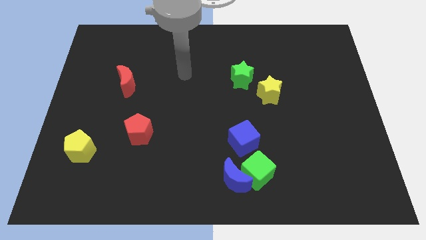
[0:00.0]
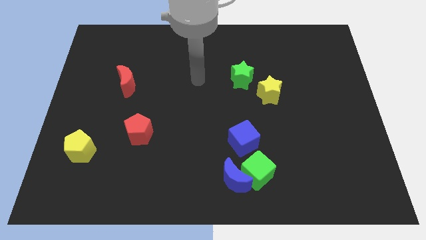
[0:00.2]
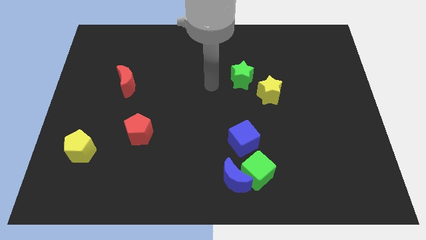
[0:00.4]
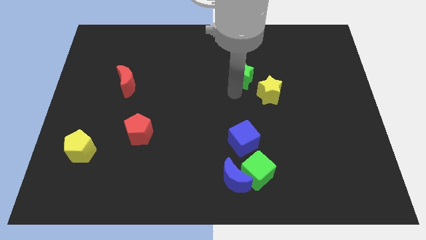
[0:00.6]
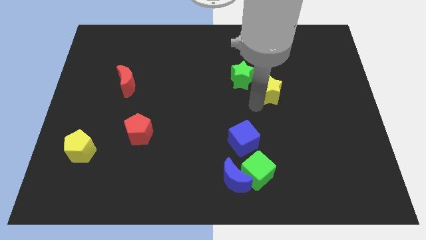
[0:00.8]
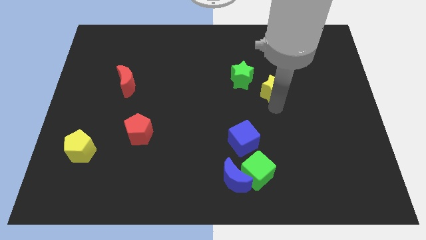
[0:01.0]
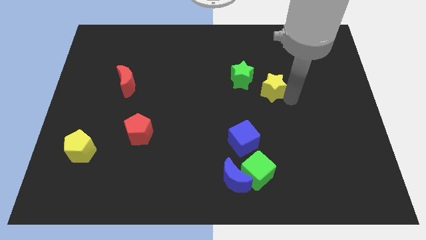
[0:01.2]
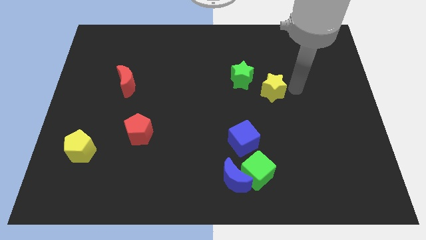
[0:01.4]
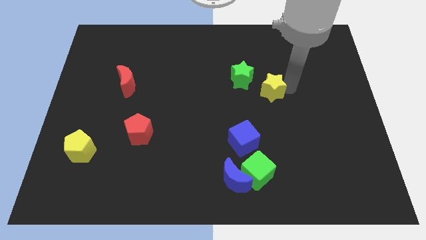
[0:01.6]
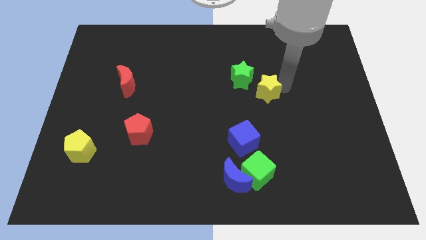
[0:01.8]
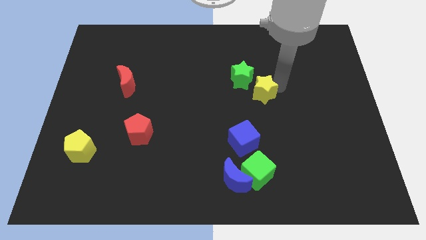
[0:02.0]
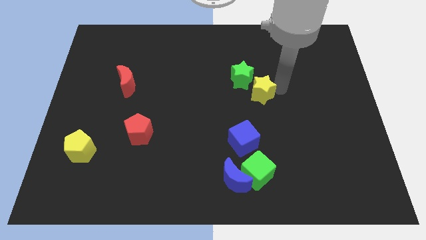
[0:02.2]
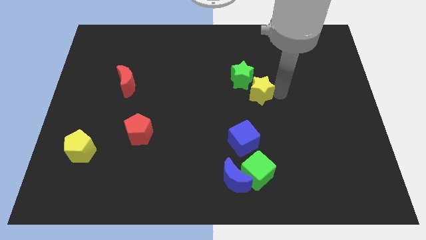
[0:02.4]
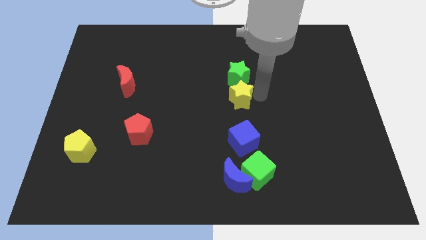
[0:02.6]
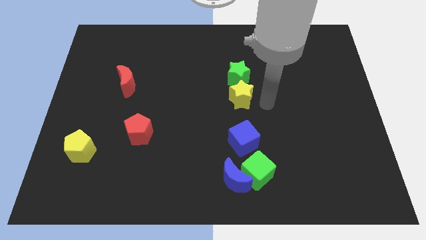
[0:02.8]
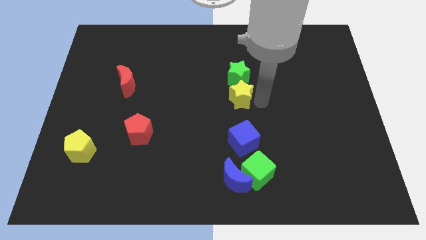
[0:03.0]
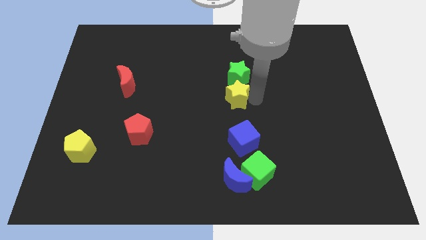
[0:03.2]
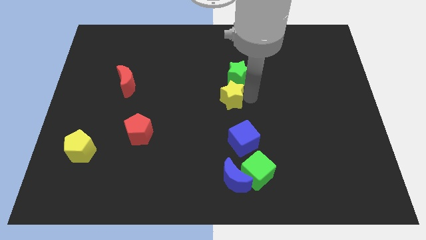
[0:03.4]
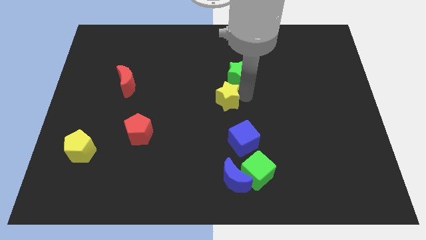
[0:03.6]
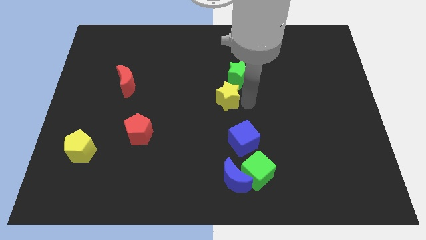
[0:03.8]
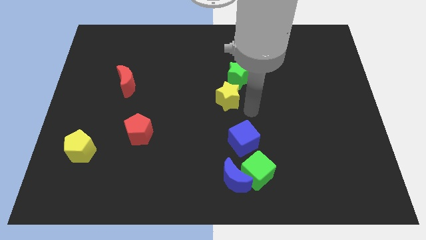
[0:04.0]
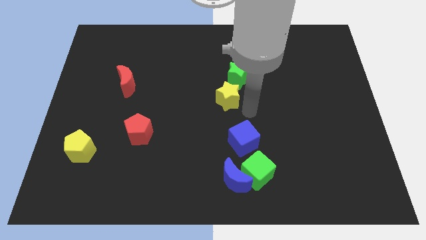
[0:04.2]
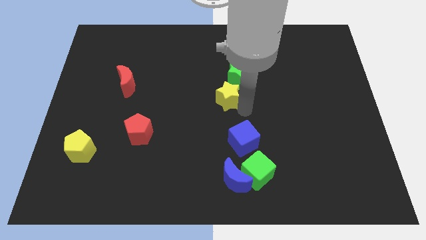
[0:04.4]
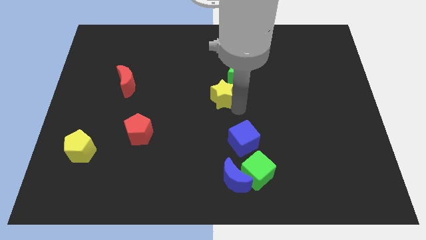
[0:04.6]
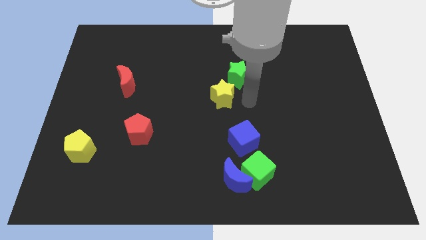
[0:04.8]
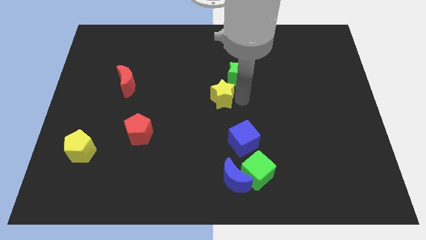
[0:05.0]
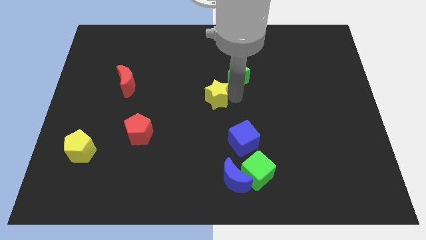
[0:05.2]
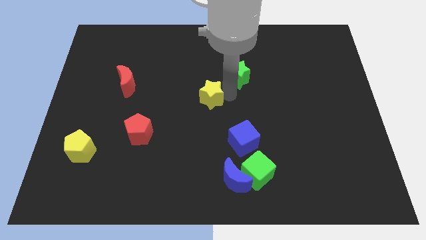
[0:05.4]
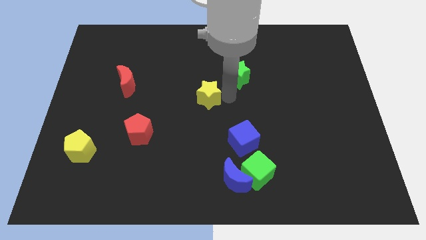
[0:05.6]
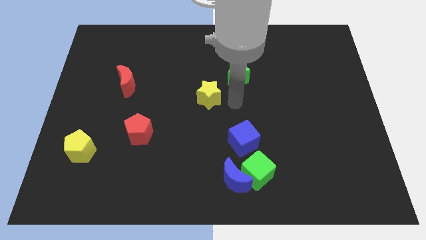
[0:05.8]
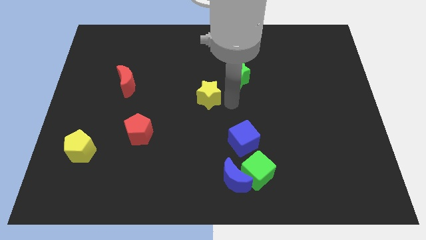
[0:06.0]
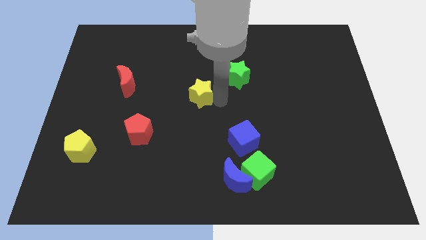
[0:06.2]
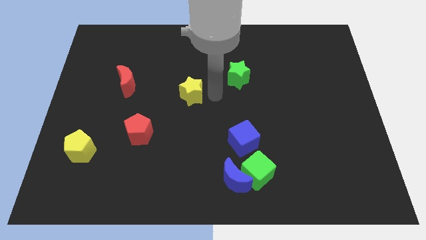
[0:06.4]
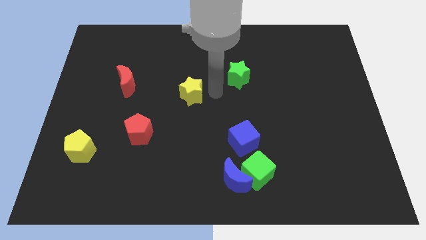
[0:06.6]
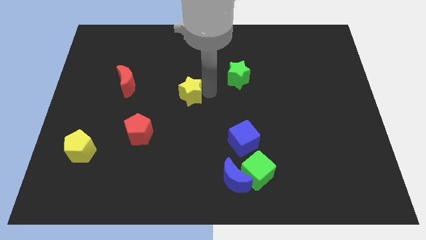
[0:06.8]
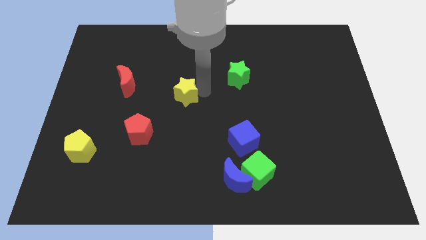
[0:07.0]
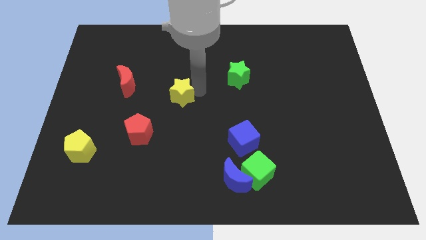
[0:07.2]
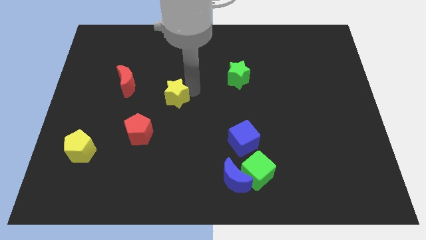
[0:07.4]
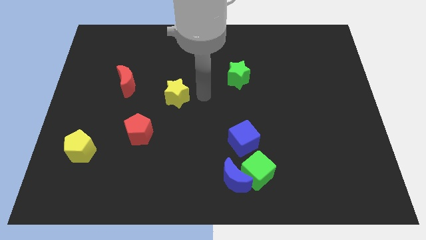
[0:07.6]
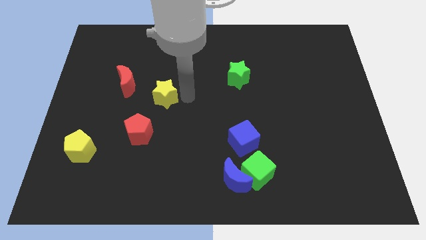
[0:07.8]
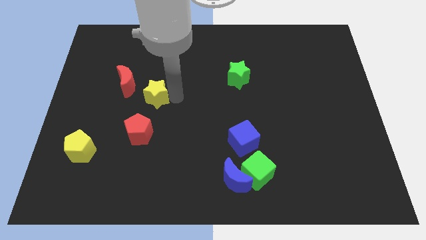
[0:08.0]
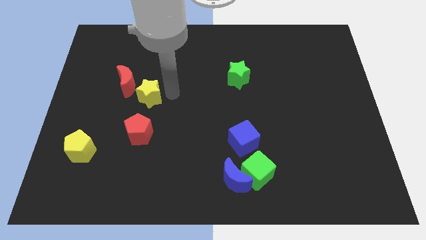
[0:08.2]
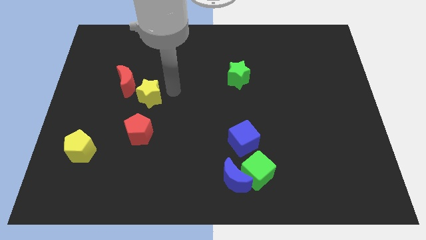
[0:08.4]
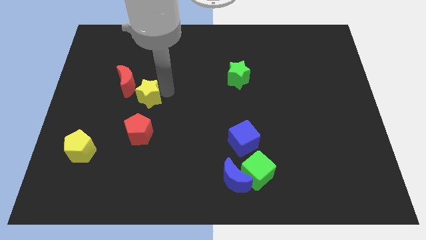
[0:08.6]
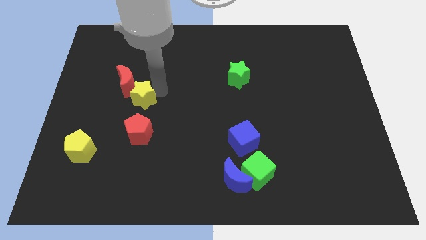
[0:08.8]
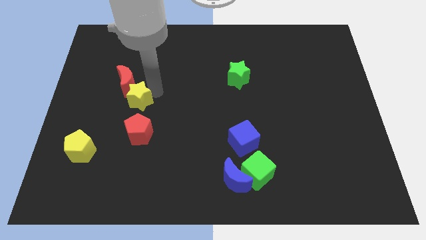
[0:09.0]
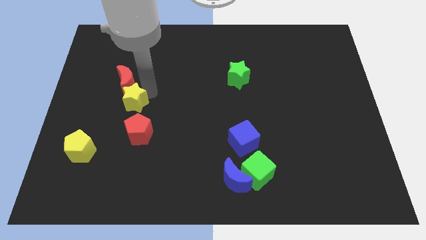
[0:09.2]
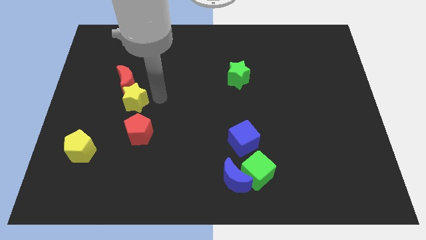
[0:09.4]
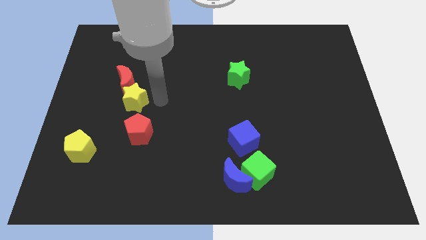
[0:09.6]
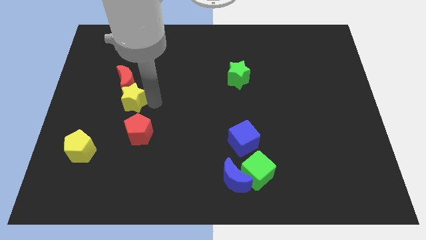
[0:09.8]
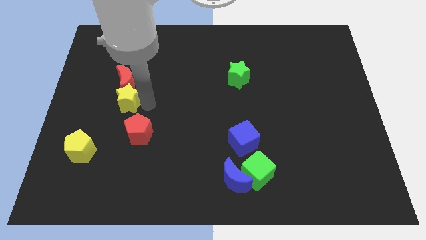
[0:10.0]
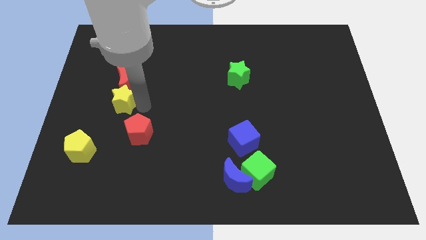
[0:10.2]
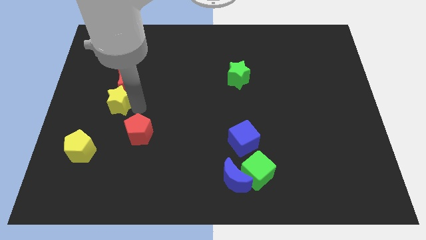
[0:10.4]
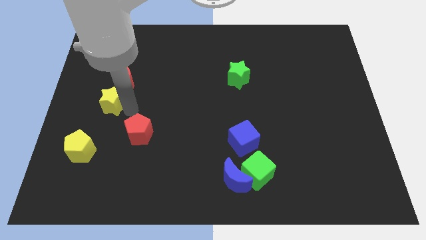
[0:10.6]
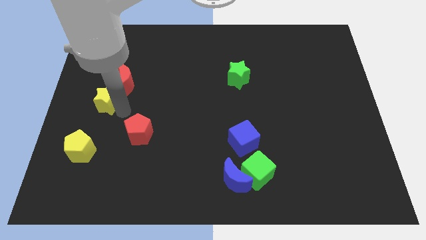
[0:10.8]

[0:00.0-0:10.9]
move the yellow star to the center left
